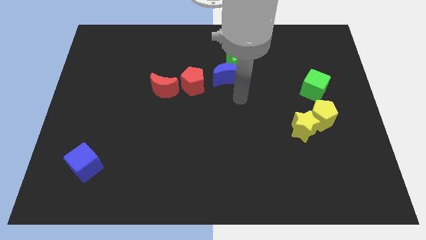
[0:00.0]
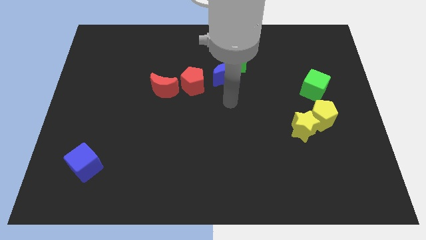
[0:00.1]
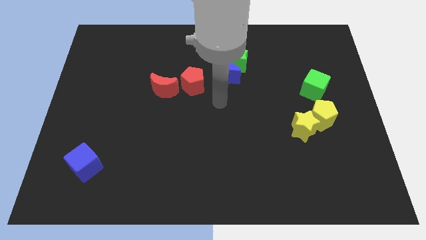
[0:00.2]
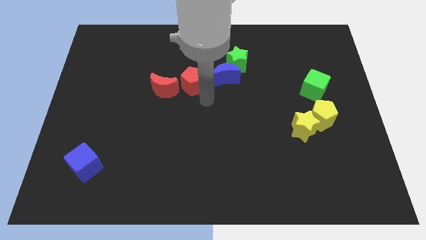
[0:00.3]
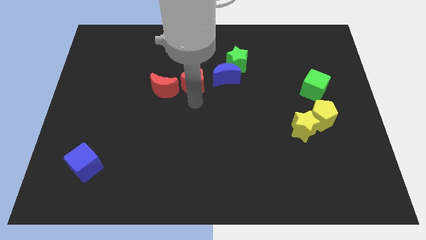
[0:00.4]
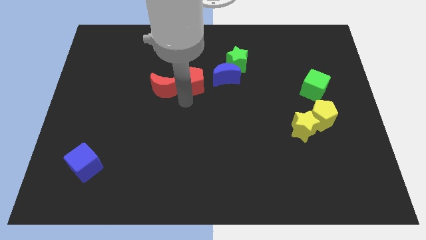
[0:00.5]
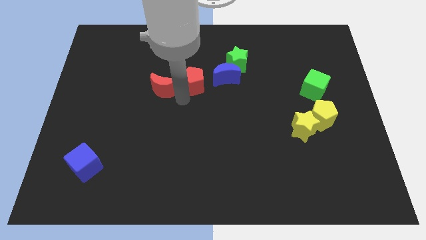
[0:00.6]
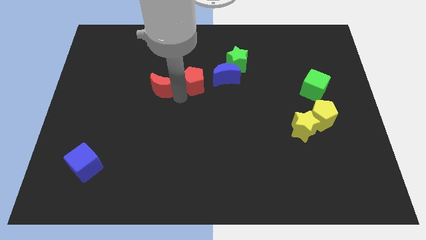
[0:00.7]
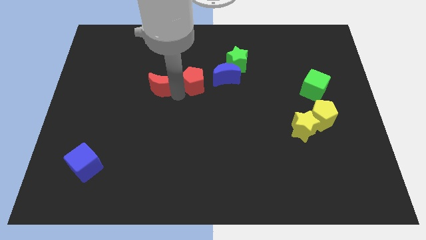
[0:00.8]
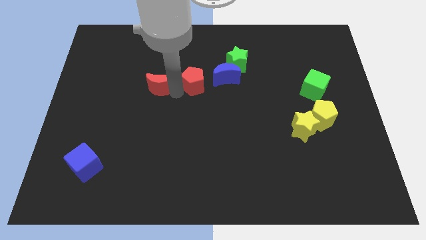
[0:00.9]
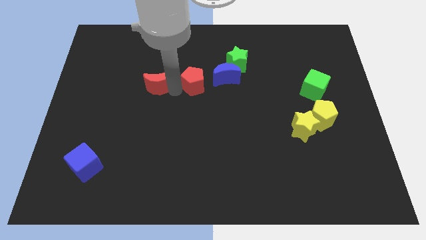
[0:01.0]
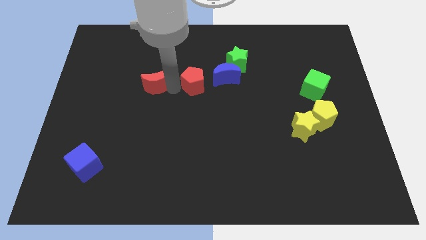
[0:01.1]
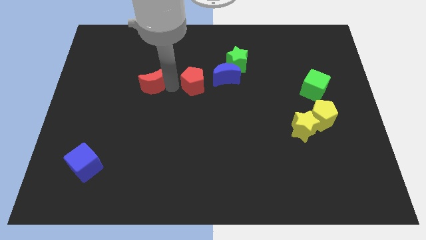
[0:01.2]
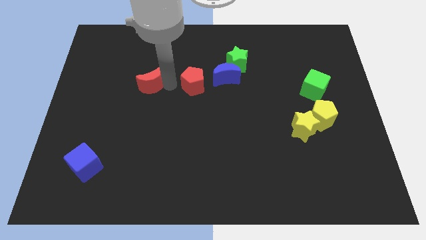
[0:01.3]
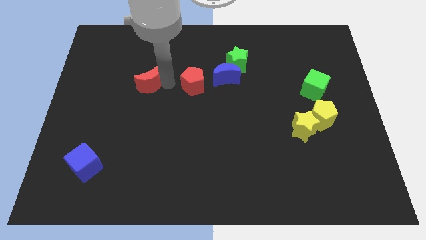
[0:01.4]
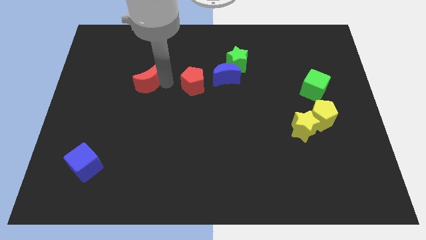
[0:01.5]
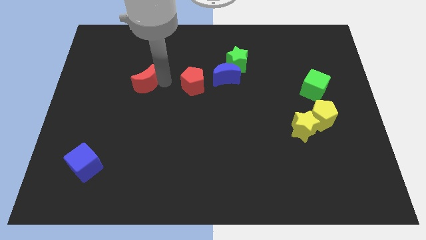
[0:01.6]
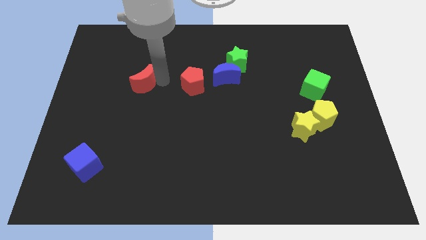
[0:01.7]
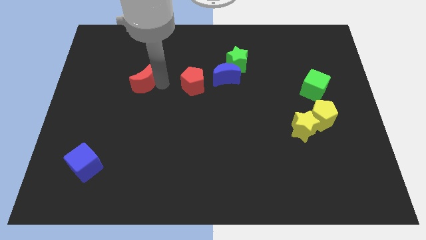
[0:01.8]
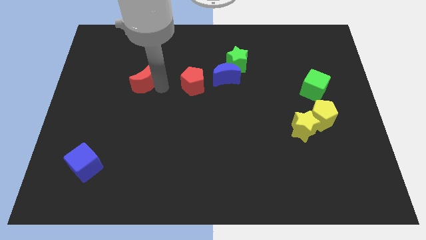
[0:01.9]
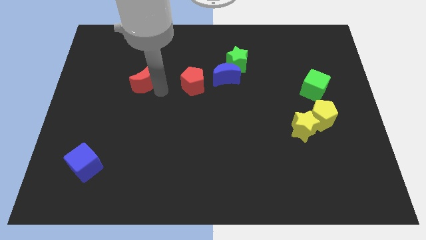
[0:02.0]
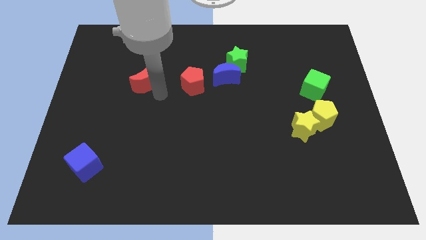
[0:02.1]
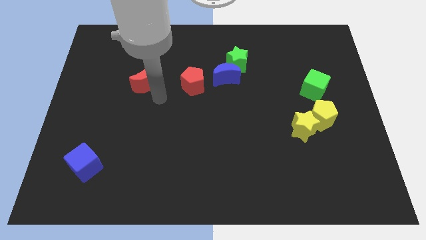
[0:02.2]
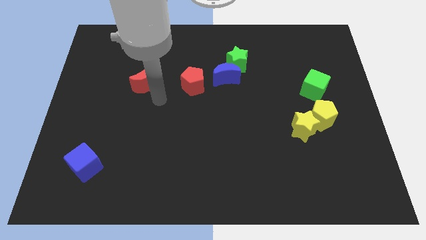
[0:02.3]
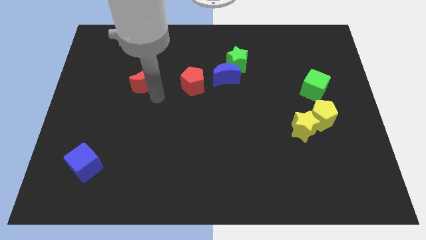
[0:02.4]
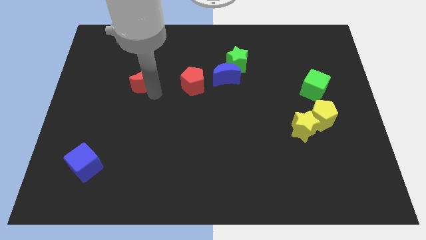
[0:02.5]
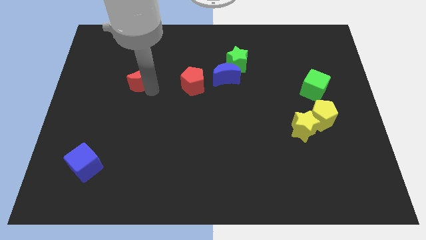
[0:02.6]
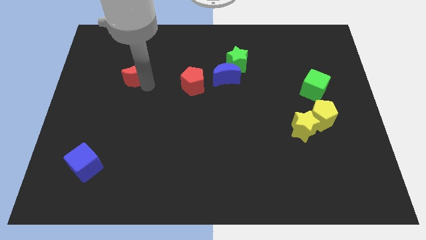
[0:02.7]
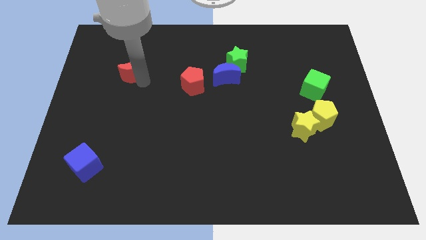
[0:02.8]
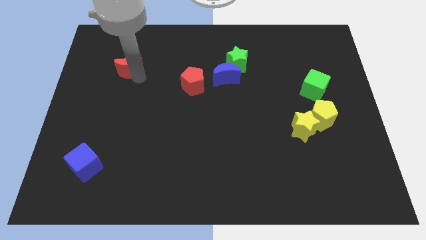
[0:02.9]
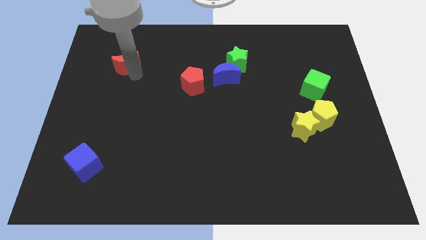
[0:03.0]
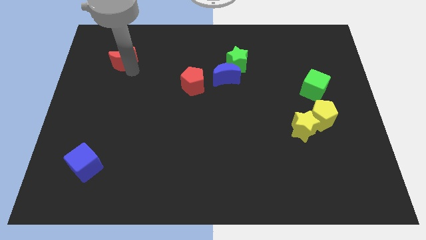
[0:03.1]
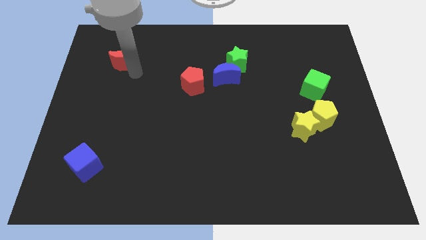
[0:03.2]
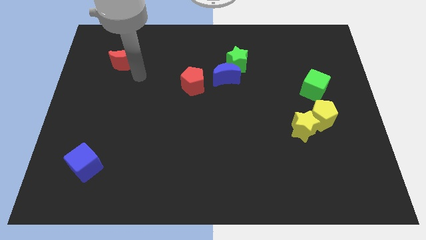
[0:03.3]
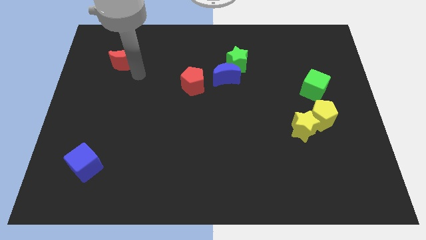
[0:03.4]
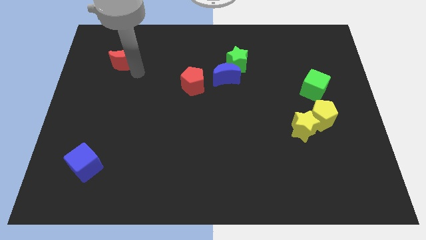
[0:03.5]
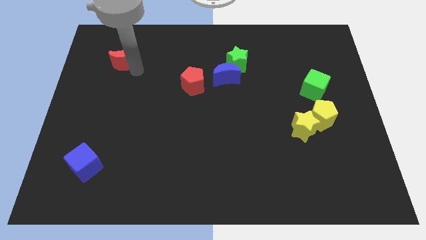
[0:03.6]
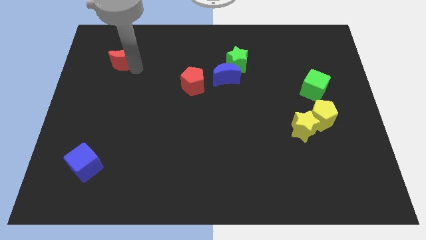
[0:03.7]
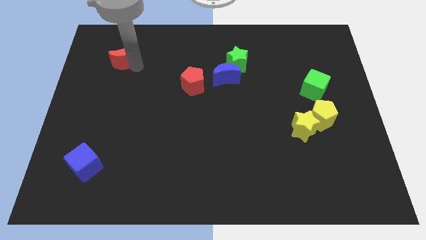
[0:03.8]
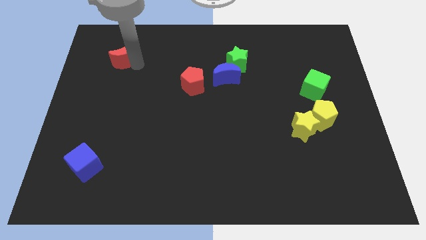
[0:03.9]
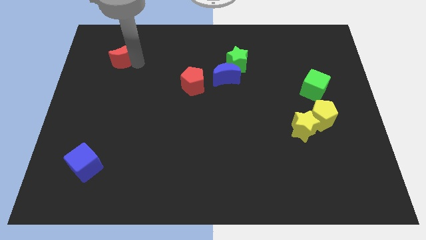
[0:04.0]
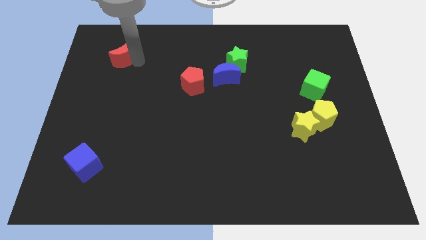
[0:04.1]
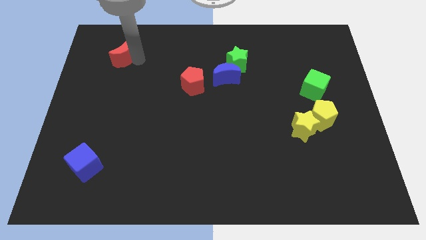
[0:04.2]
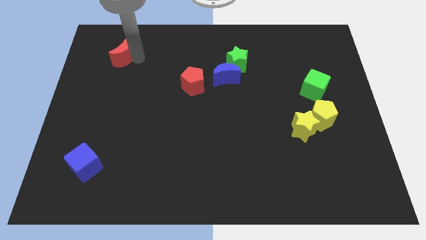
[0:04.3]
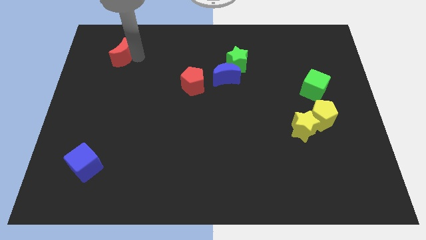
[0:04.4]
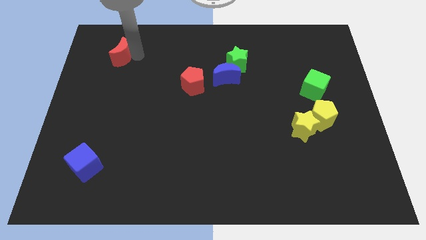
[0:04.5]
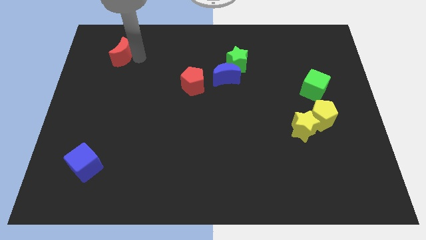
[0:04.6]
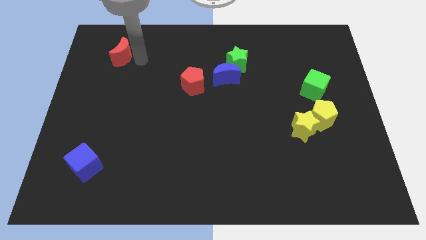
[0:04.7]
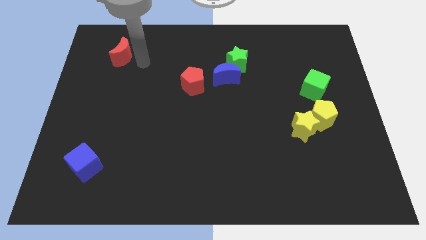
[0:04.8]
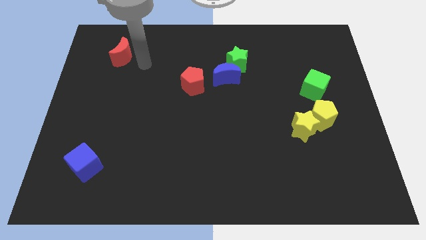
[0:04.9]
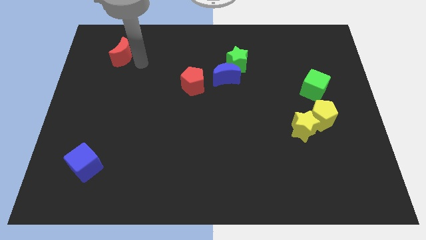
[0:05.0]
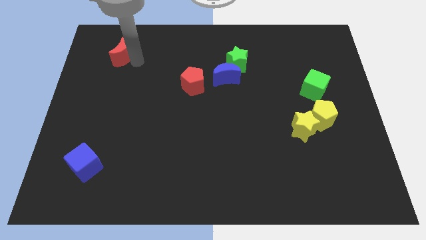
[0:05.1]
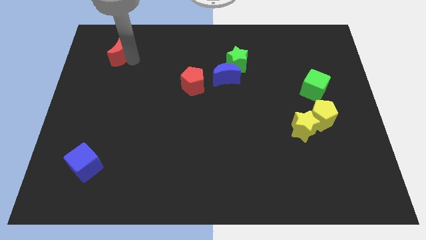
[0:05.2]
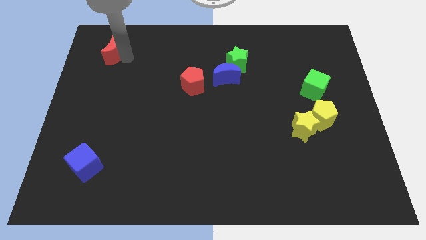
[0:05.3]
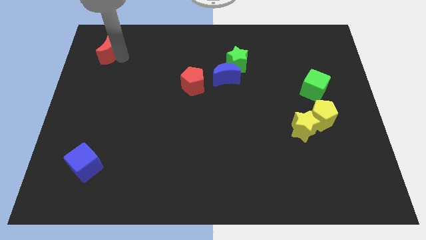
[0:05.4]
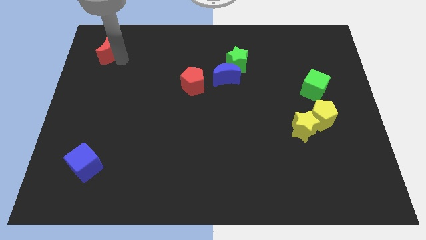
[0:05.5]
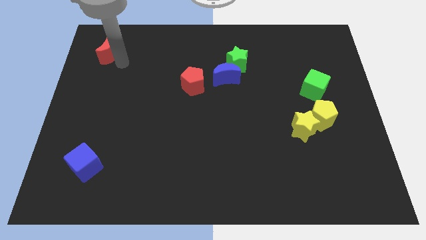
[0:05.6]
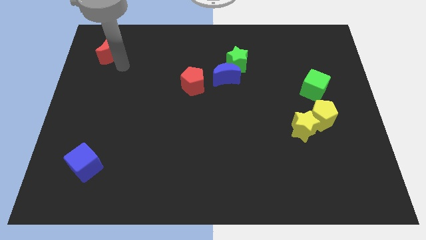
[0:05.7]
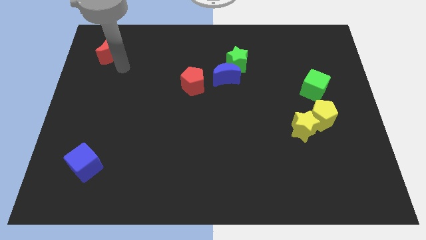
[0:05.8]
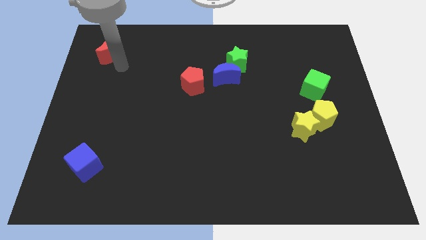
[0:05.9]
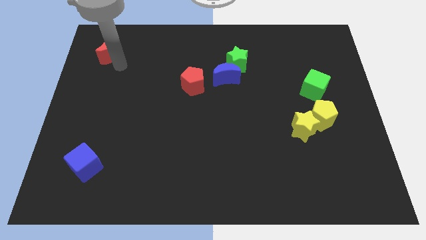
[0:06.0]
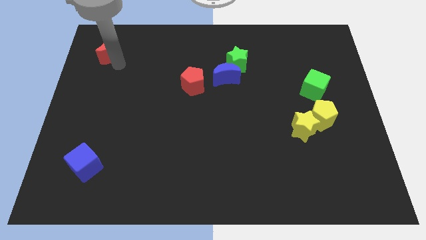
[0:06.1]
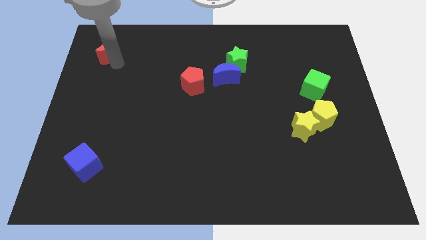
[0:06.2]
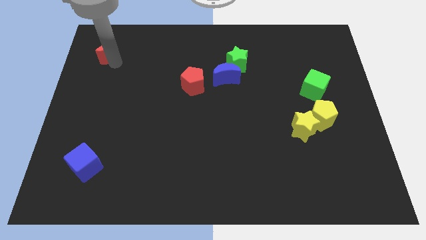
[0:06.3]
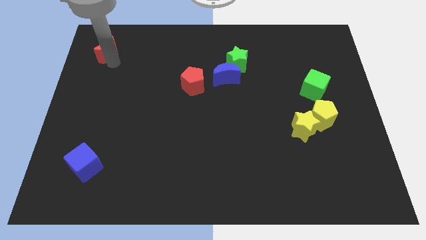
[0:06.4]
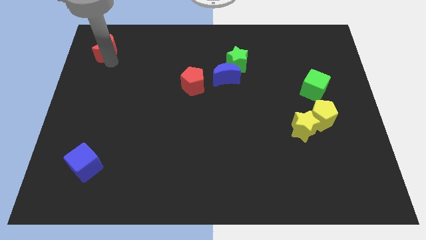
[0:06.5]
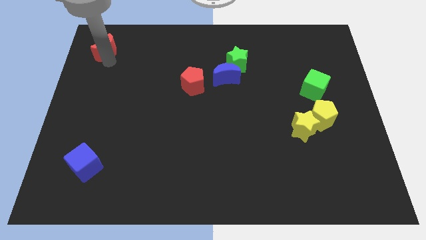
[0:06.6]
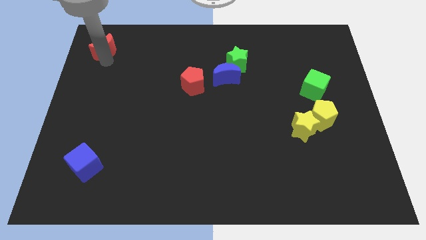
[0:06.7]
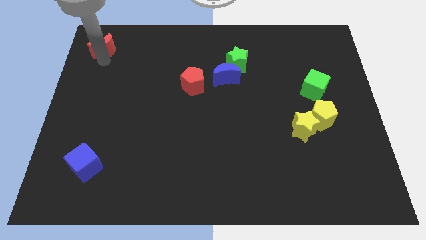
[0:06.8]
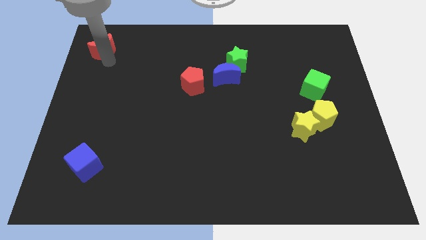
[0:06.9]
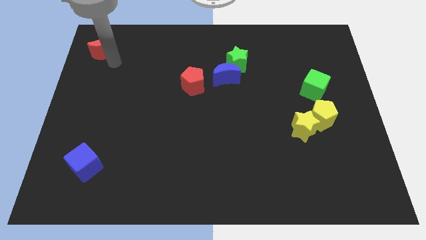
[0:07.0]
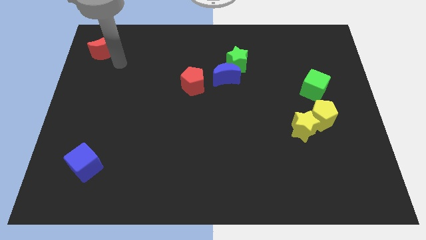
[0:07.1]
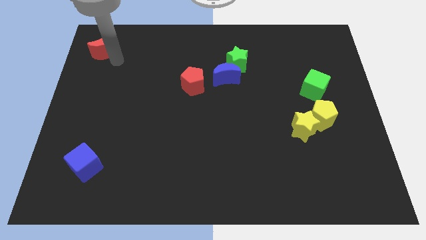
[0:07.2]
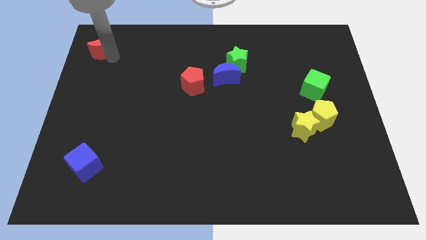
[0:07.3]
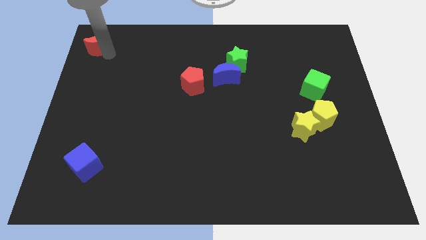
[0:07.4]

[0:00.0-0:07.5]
move the red moon to the top left of the board
